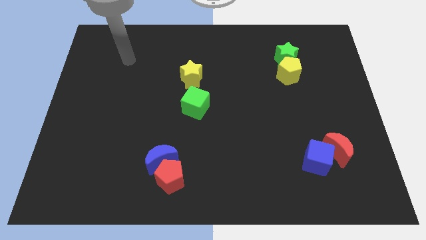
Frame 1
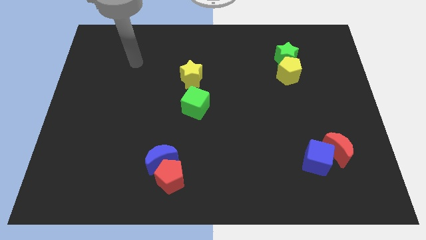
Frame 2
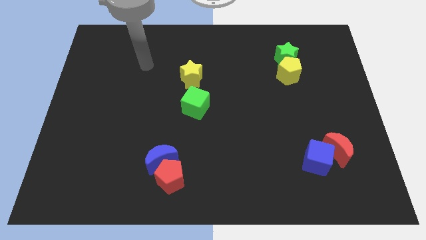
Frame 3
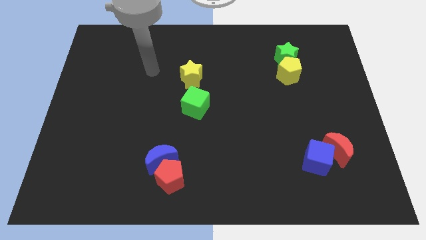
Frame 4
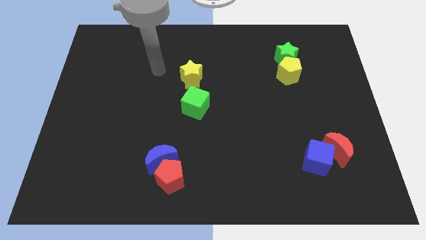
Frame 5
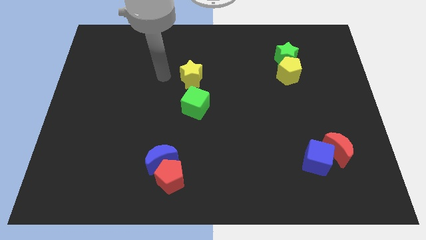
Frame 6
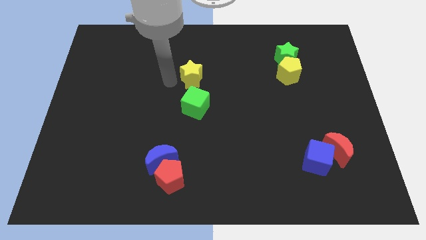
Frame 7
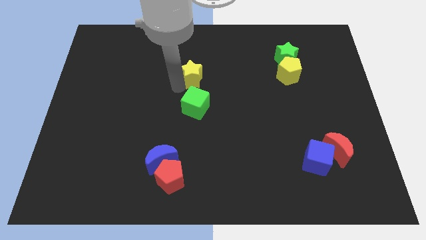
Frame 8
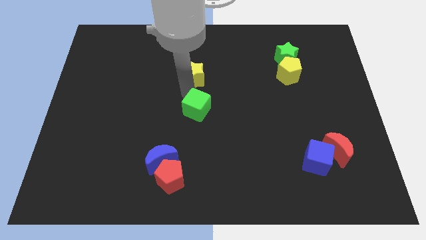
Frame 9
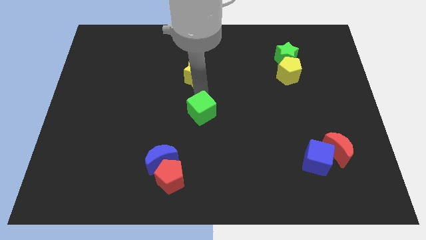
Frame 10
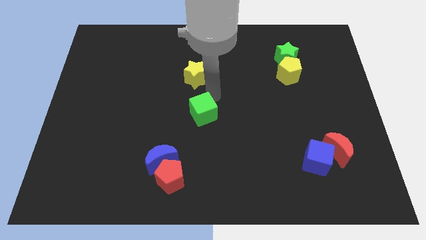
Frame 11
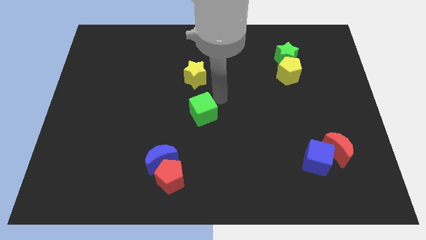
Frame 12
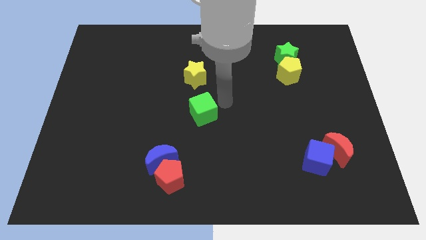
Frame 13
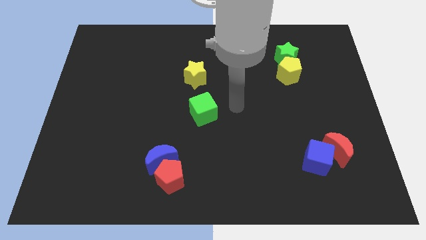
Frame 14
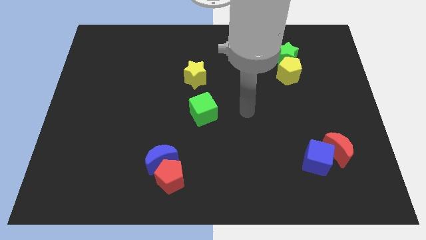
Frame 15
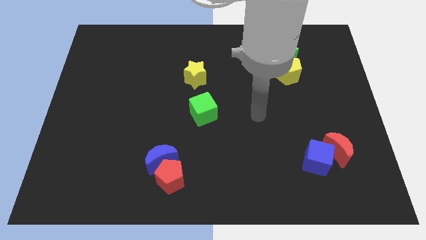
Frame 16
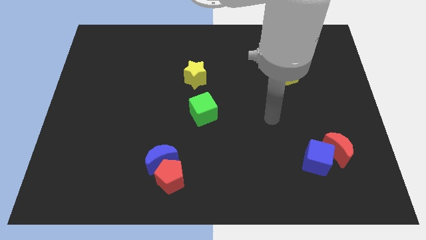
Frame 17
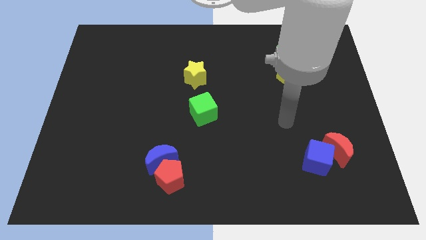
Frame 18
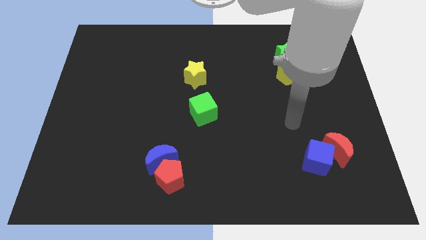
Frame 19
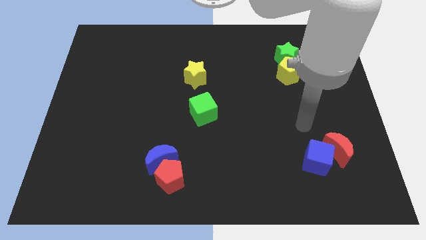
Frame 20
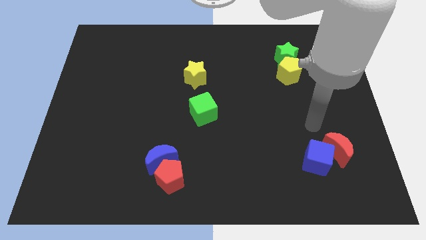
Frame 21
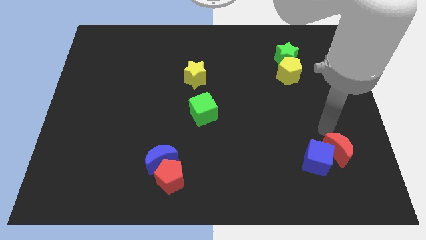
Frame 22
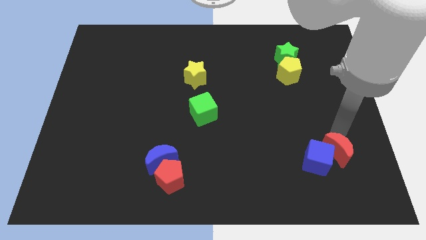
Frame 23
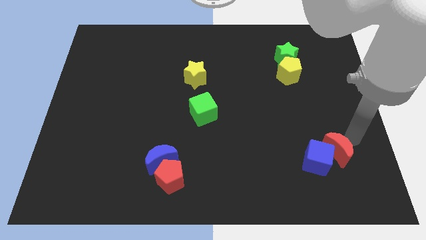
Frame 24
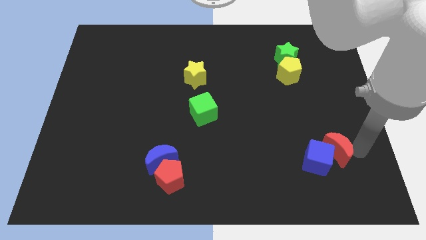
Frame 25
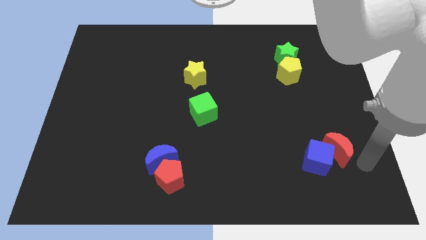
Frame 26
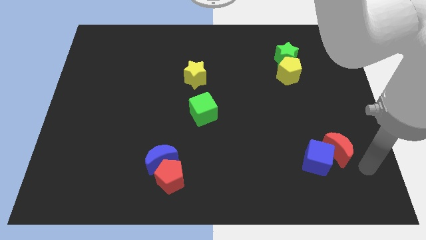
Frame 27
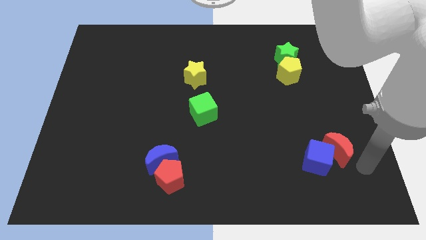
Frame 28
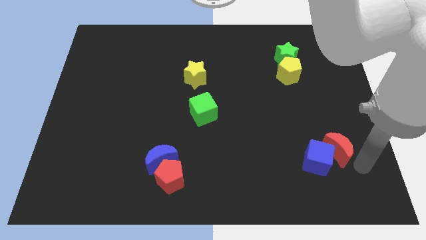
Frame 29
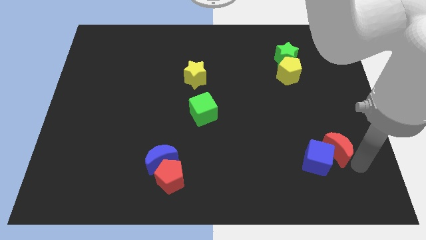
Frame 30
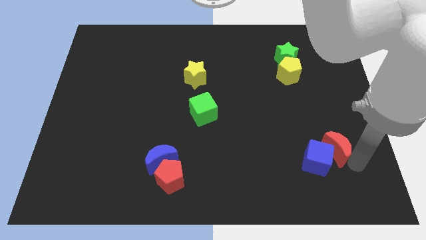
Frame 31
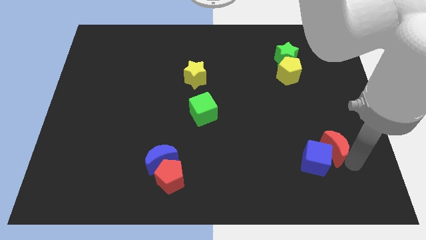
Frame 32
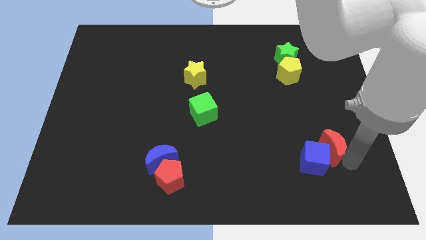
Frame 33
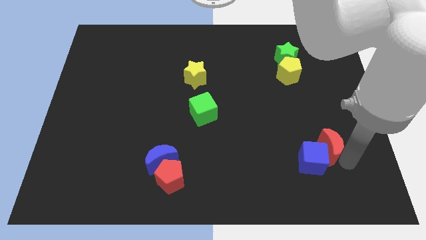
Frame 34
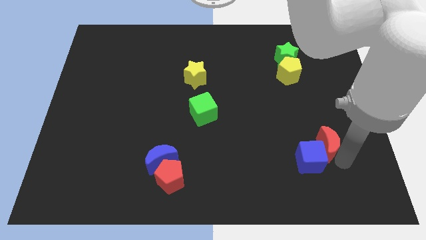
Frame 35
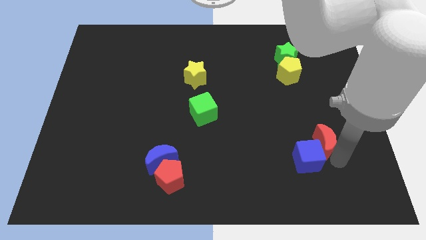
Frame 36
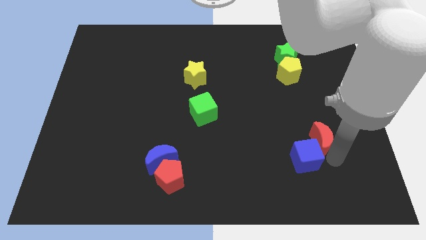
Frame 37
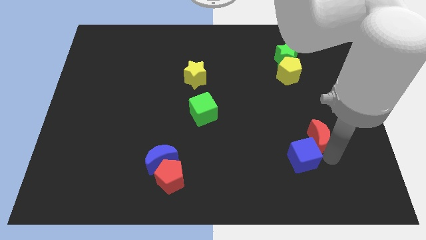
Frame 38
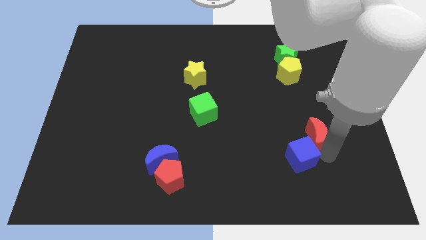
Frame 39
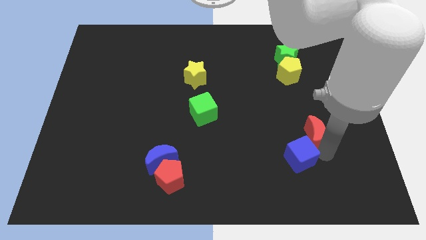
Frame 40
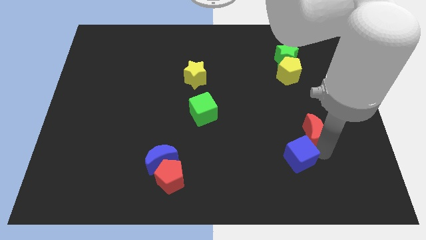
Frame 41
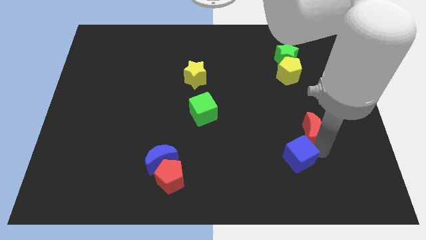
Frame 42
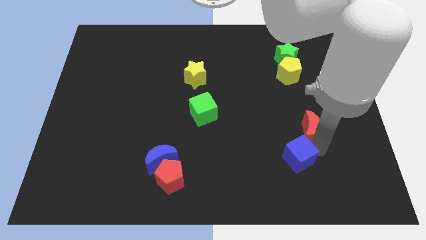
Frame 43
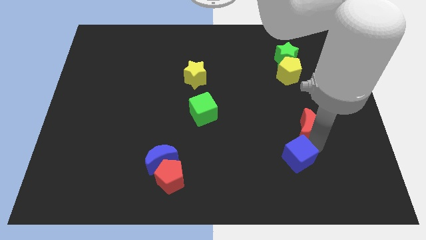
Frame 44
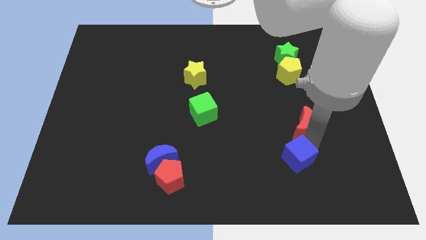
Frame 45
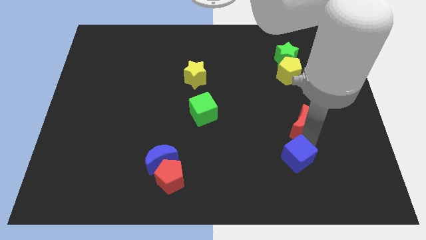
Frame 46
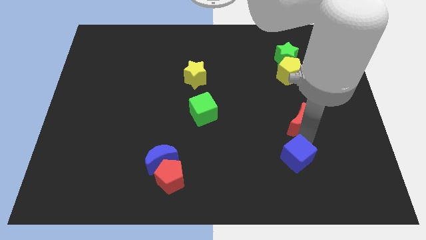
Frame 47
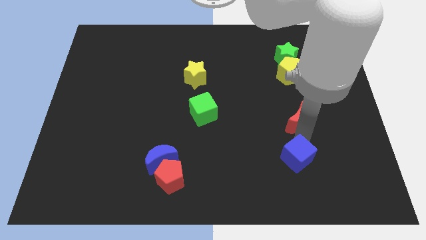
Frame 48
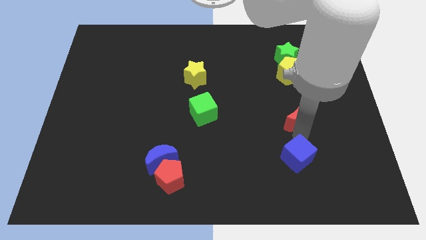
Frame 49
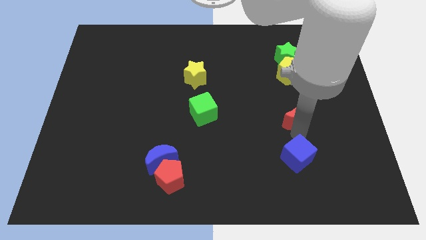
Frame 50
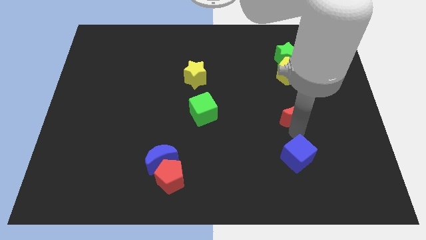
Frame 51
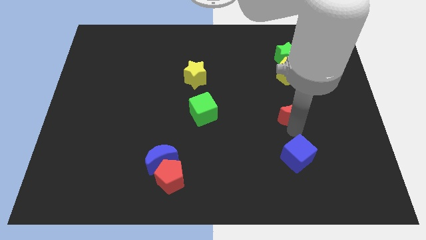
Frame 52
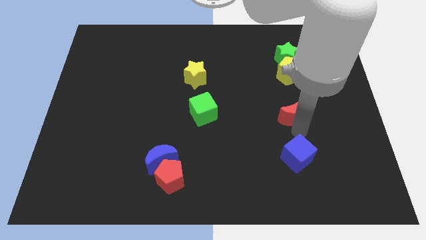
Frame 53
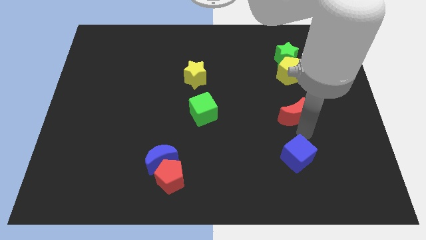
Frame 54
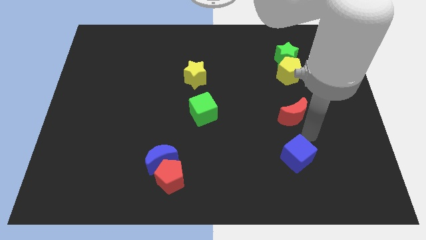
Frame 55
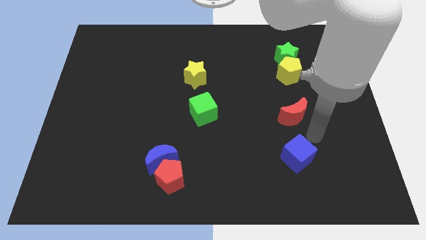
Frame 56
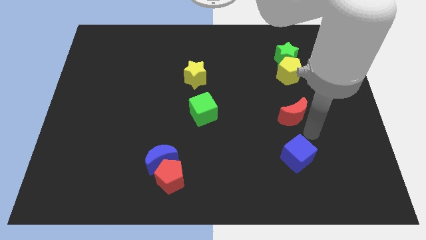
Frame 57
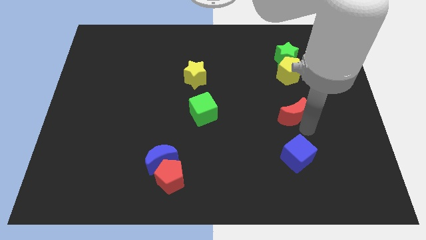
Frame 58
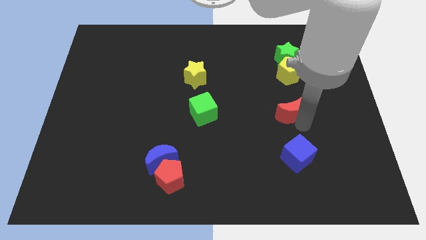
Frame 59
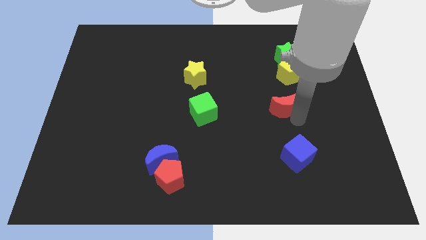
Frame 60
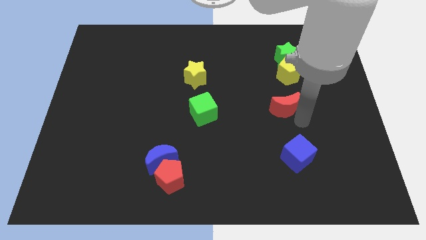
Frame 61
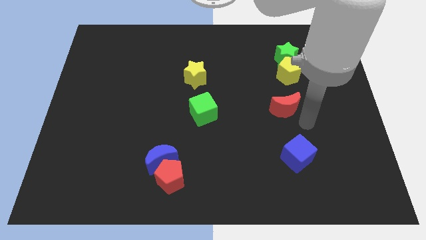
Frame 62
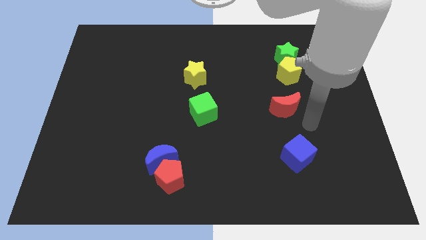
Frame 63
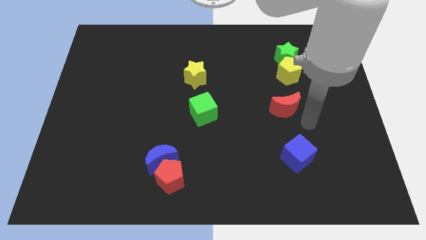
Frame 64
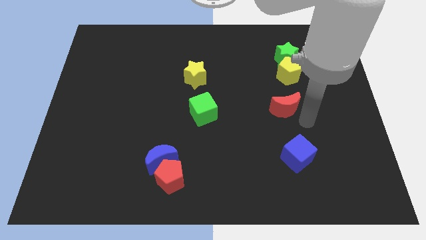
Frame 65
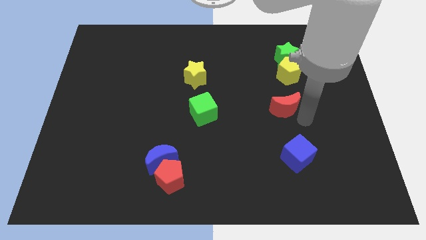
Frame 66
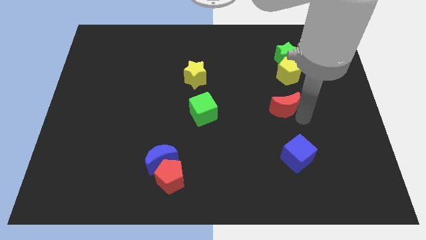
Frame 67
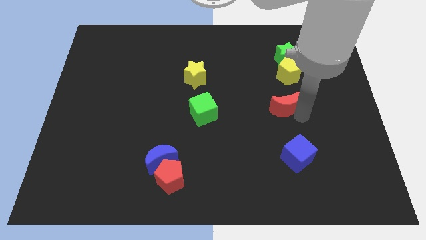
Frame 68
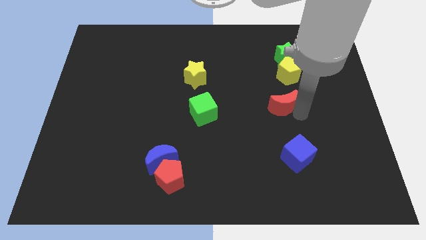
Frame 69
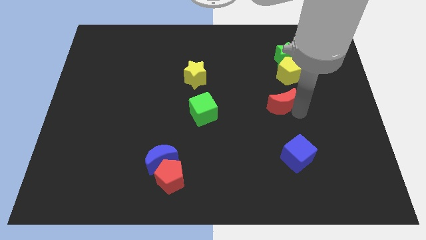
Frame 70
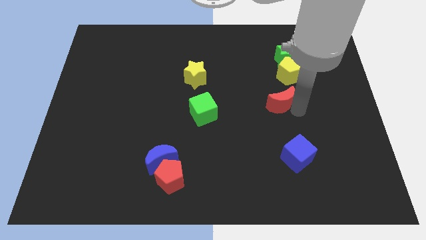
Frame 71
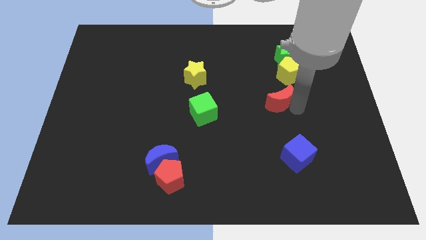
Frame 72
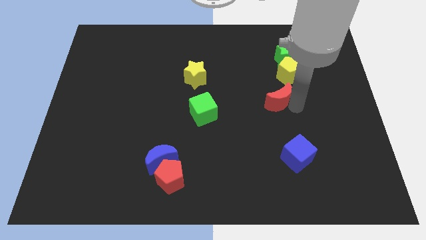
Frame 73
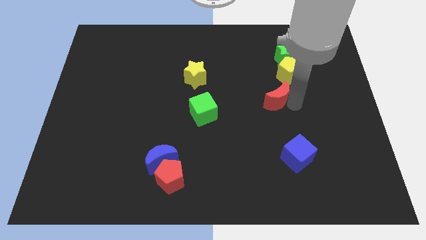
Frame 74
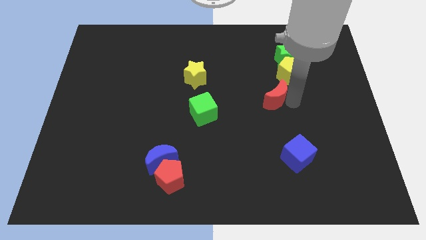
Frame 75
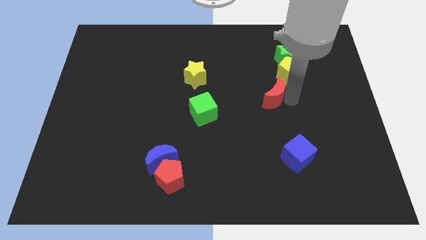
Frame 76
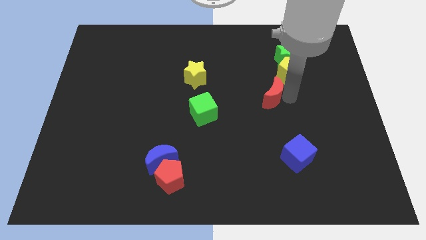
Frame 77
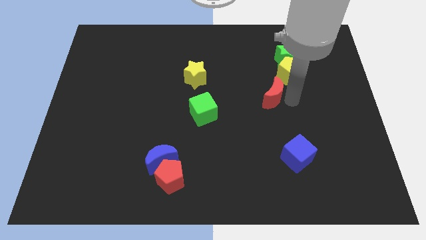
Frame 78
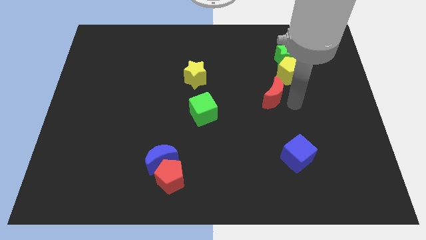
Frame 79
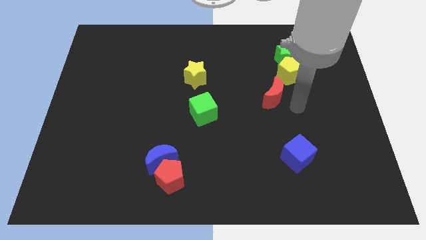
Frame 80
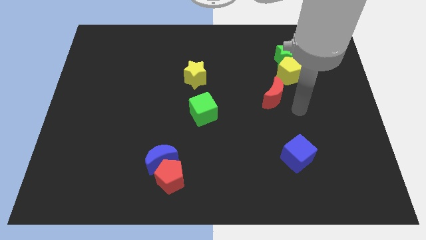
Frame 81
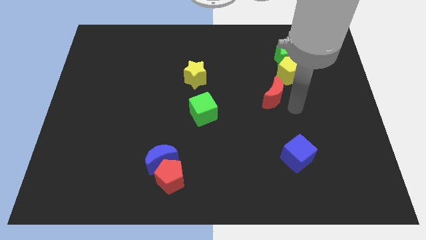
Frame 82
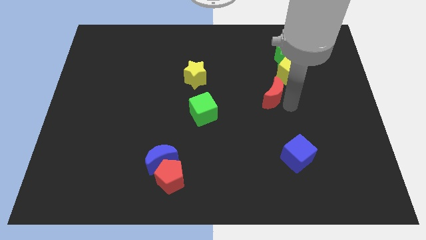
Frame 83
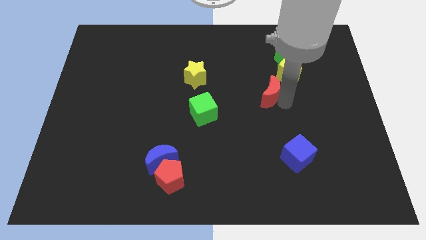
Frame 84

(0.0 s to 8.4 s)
push the red moon diagonally up and left
